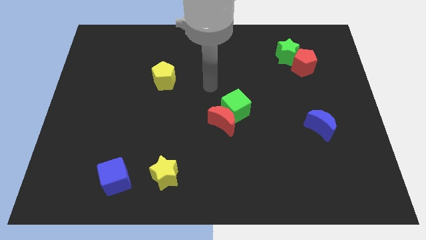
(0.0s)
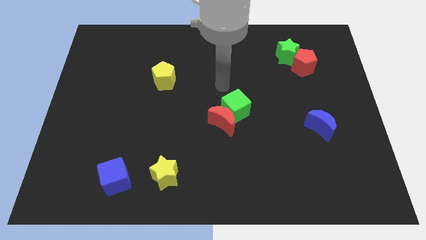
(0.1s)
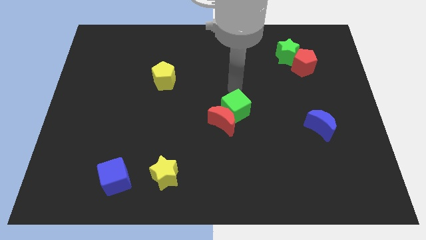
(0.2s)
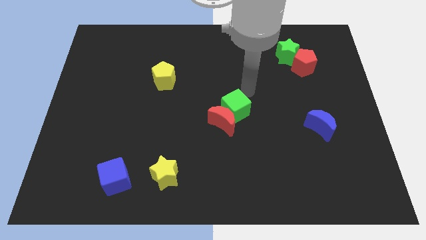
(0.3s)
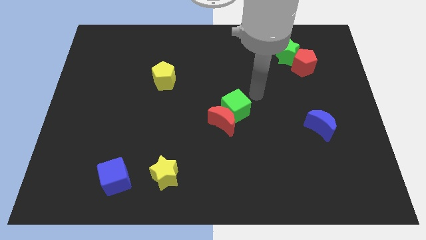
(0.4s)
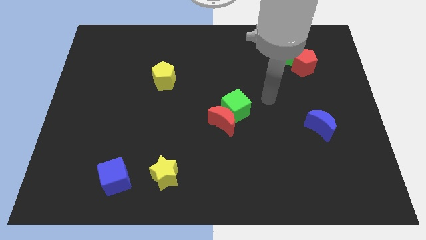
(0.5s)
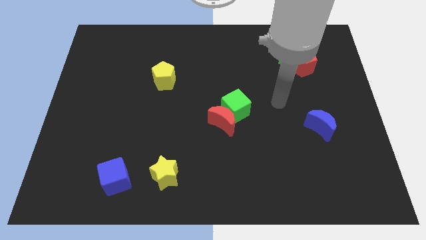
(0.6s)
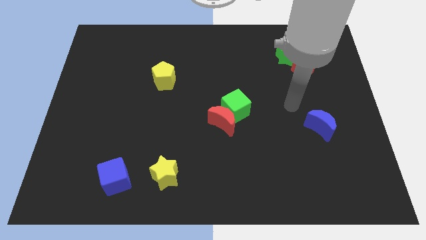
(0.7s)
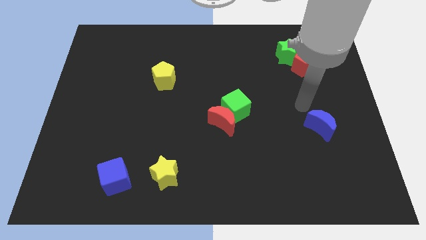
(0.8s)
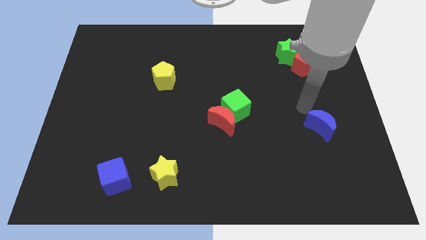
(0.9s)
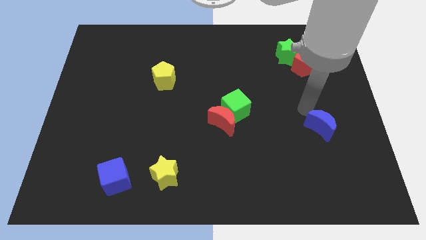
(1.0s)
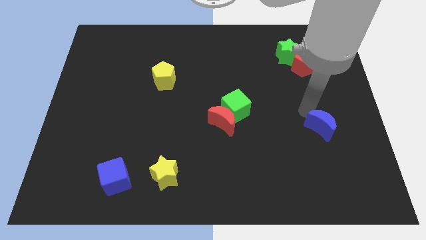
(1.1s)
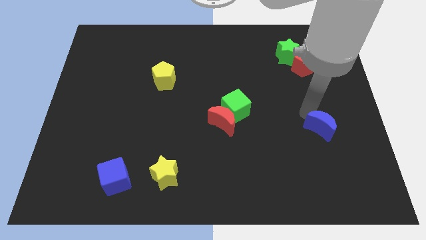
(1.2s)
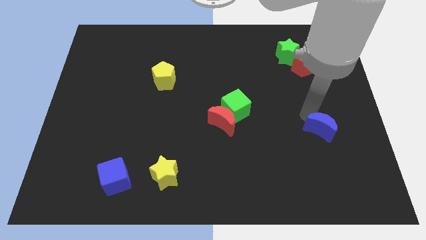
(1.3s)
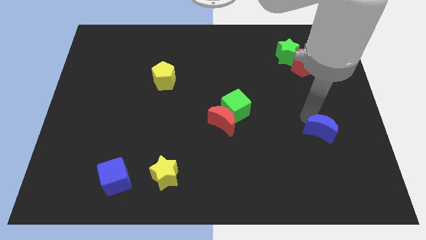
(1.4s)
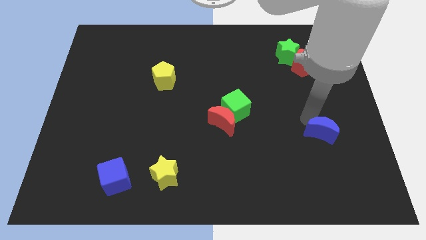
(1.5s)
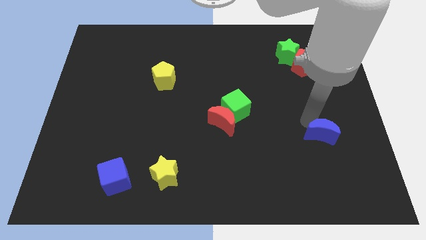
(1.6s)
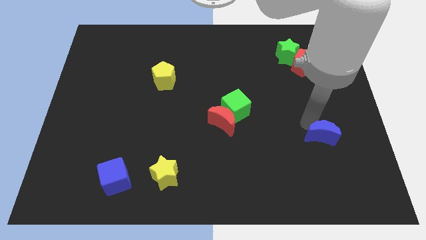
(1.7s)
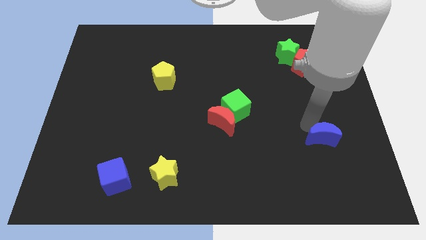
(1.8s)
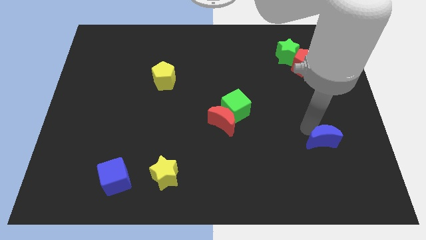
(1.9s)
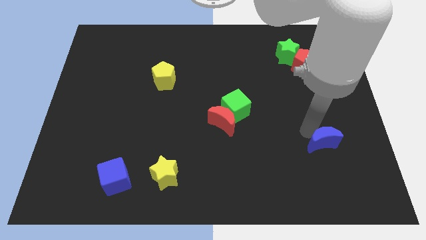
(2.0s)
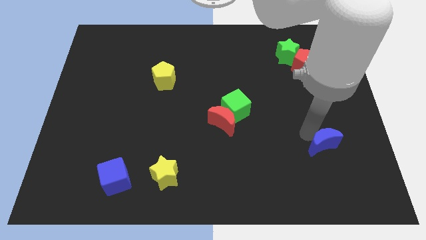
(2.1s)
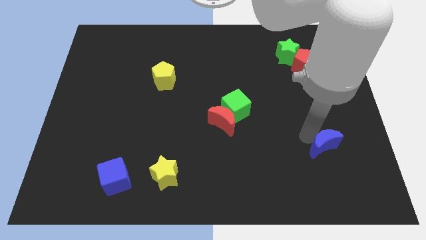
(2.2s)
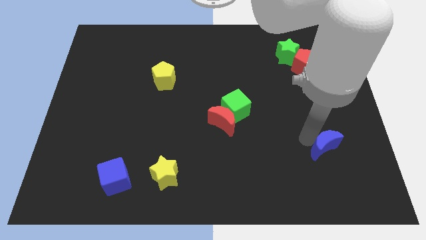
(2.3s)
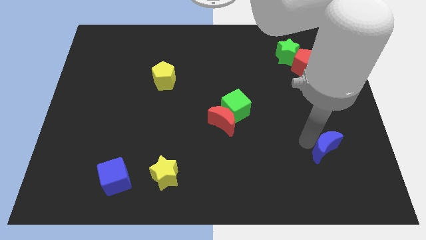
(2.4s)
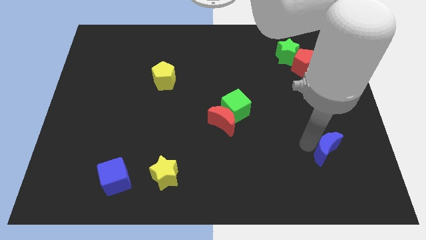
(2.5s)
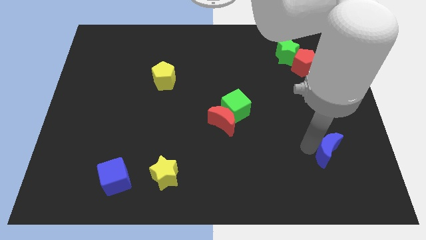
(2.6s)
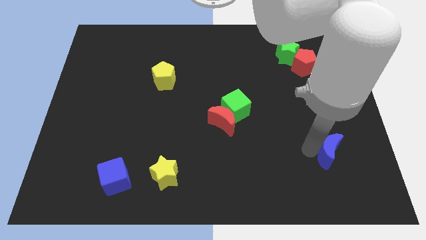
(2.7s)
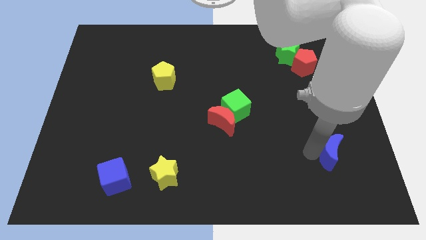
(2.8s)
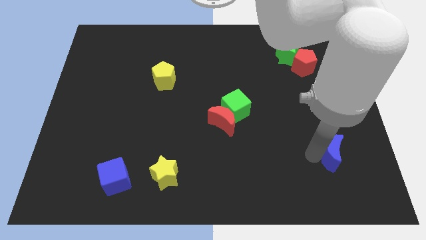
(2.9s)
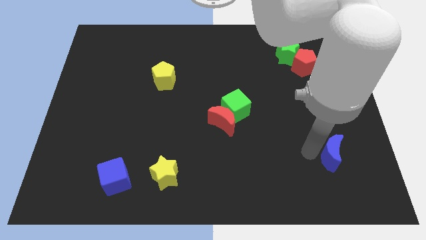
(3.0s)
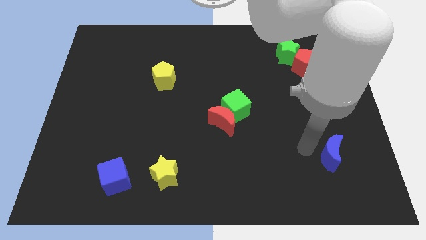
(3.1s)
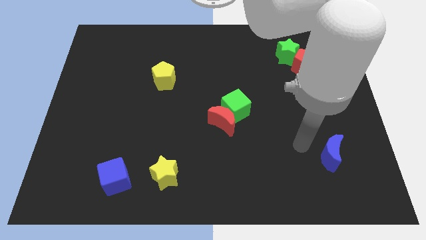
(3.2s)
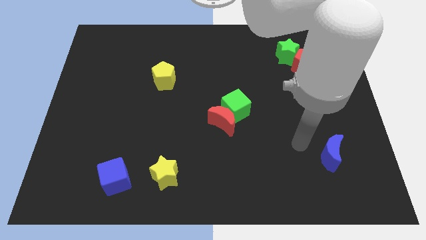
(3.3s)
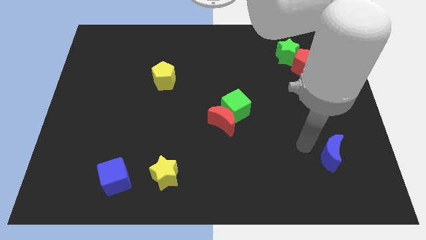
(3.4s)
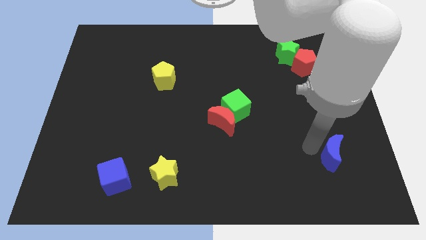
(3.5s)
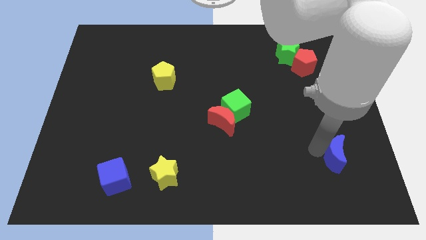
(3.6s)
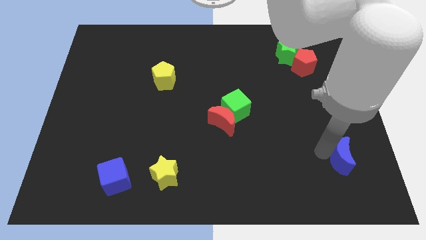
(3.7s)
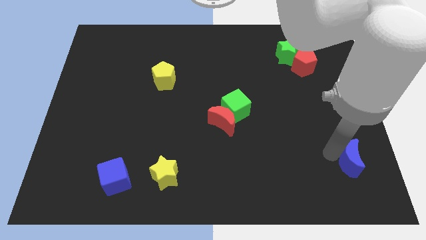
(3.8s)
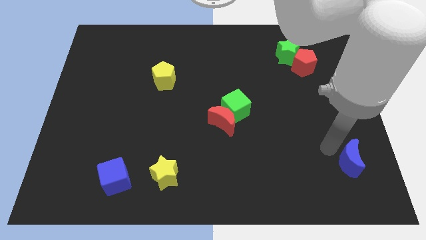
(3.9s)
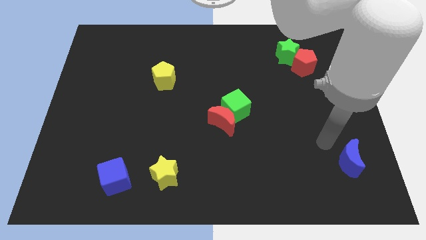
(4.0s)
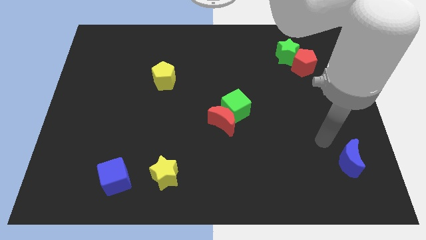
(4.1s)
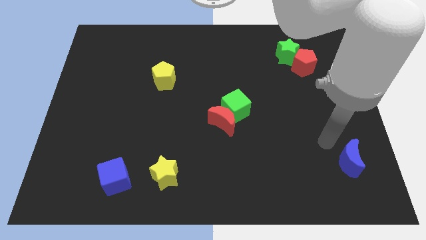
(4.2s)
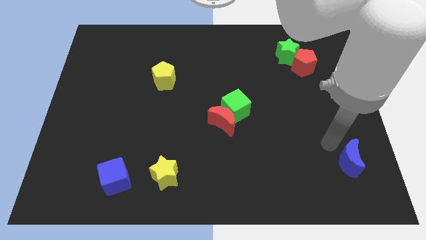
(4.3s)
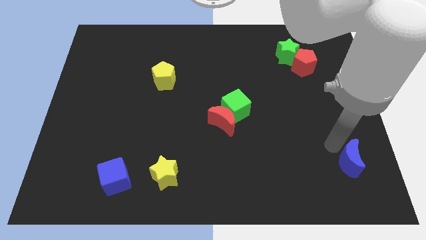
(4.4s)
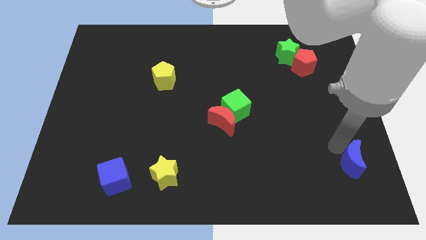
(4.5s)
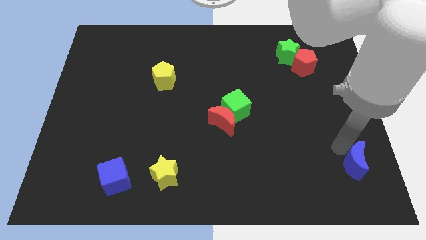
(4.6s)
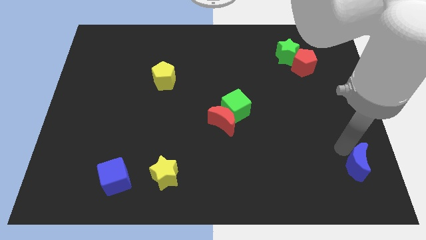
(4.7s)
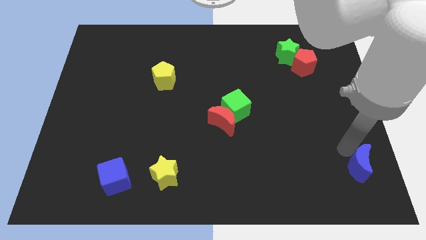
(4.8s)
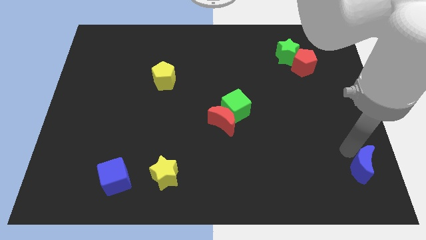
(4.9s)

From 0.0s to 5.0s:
put the blue moon to the bottom right of the board

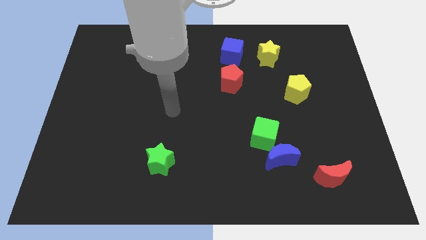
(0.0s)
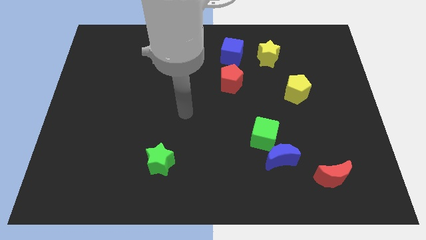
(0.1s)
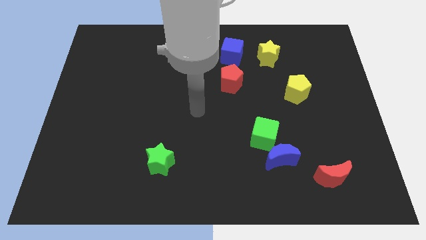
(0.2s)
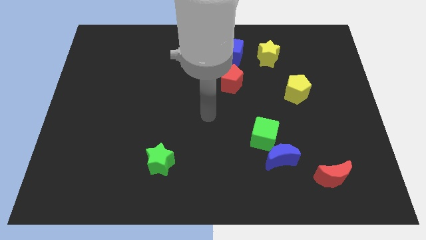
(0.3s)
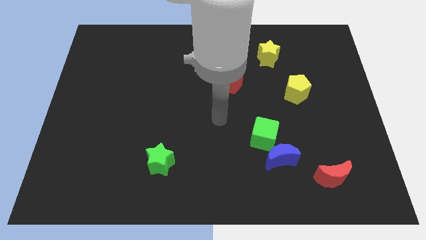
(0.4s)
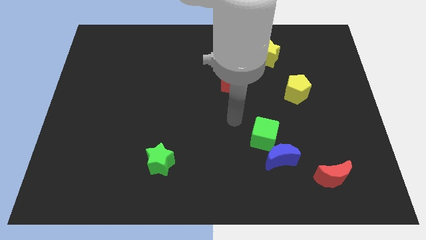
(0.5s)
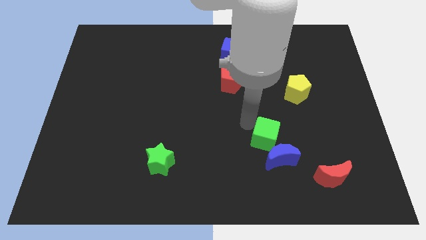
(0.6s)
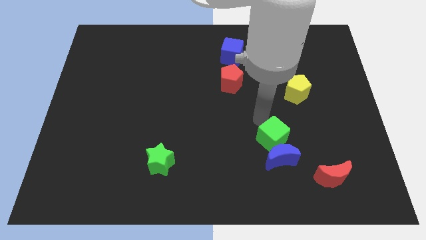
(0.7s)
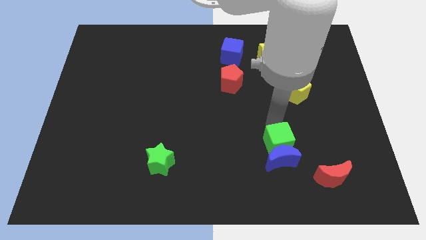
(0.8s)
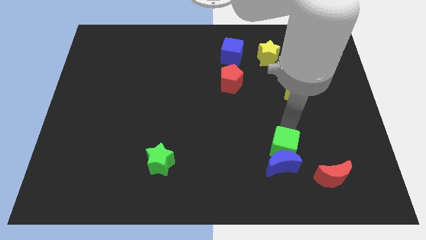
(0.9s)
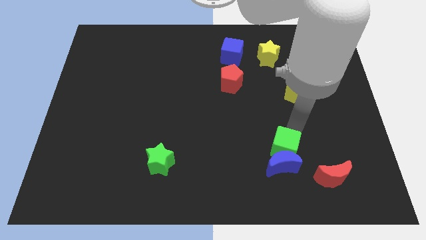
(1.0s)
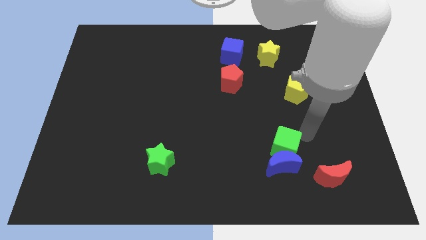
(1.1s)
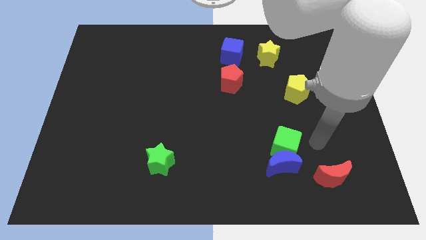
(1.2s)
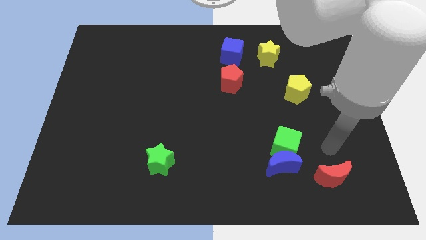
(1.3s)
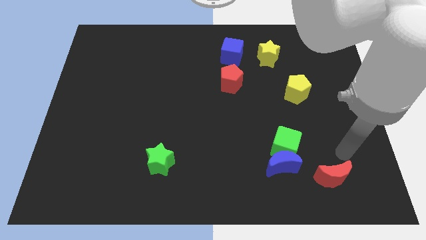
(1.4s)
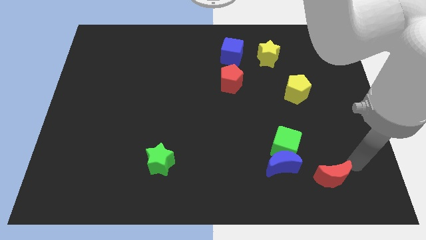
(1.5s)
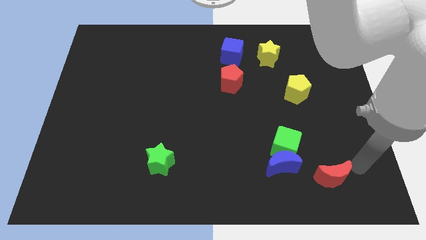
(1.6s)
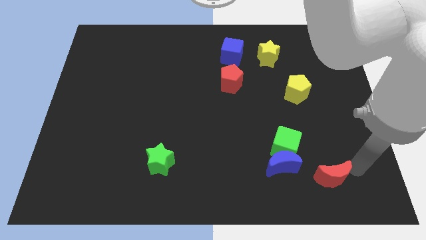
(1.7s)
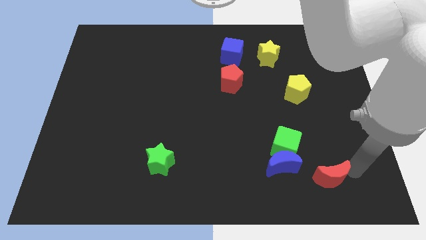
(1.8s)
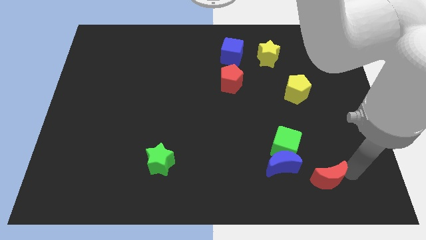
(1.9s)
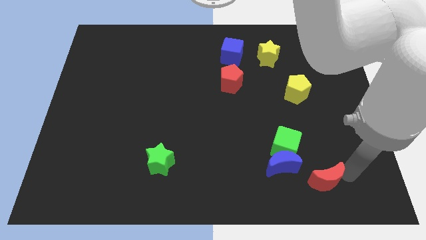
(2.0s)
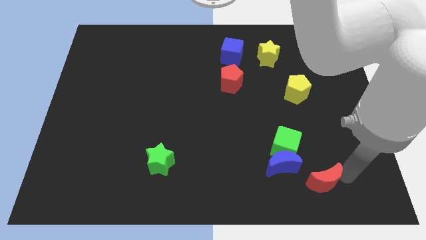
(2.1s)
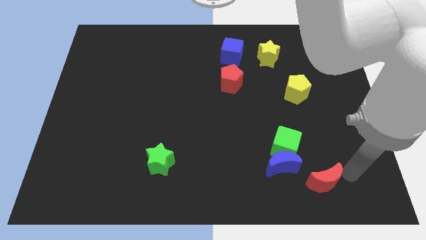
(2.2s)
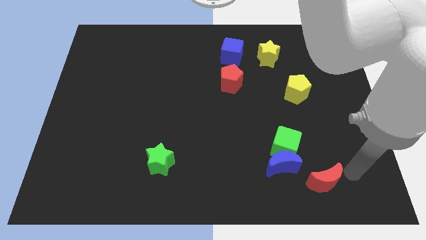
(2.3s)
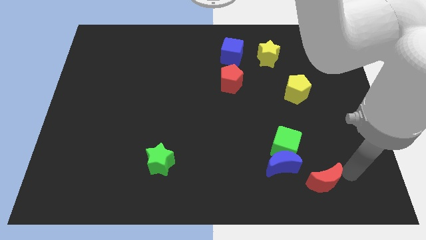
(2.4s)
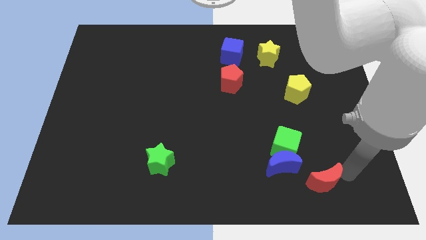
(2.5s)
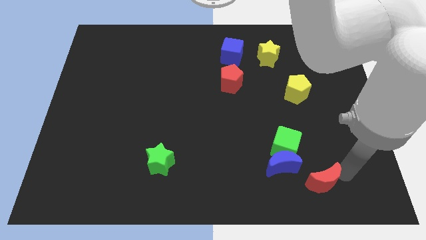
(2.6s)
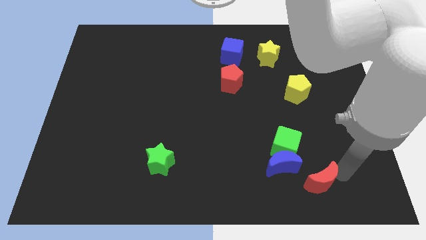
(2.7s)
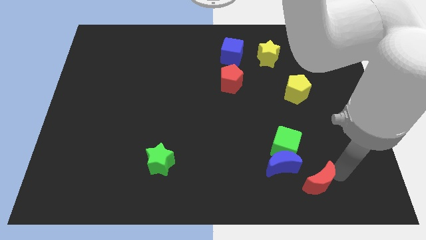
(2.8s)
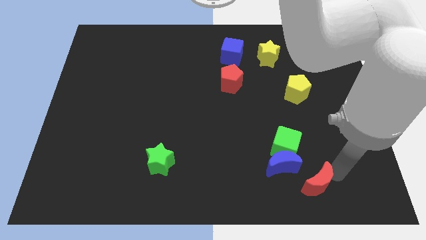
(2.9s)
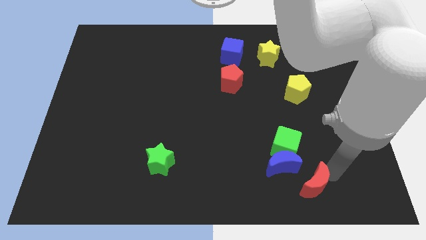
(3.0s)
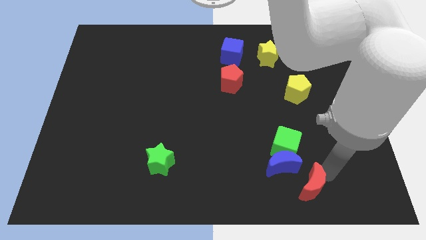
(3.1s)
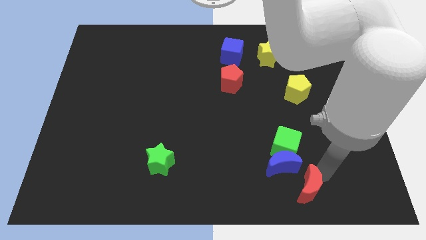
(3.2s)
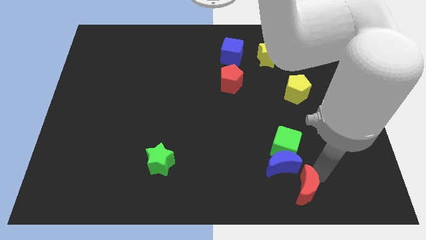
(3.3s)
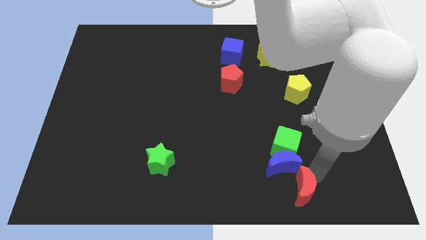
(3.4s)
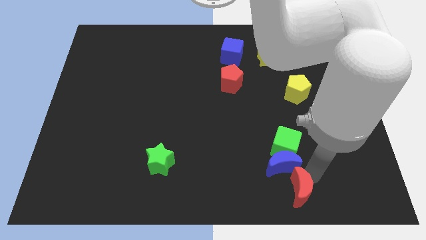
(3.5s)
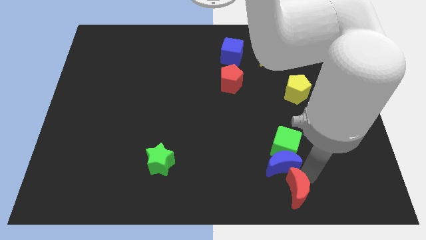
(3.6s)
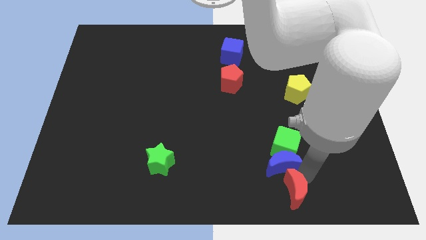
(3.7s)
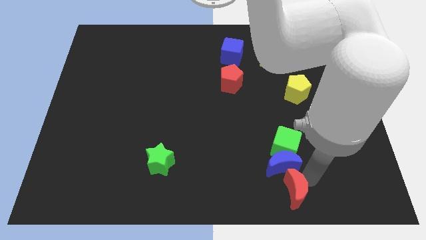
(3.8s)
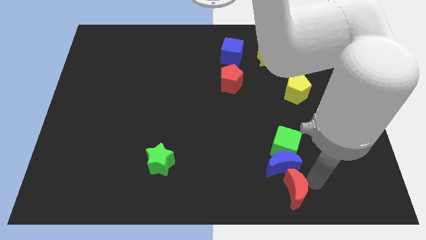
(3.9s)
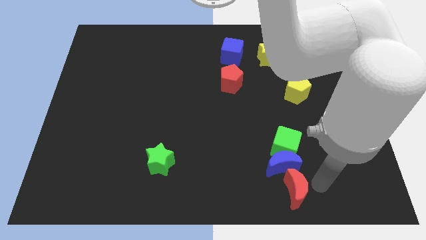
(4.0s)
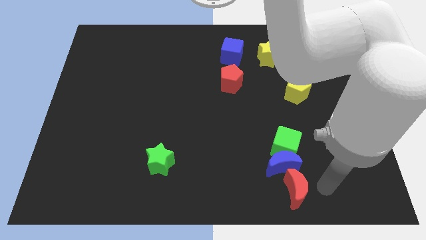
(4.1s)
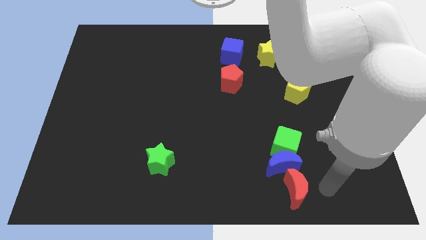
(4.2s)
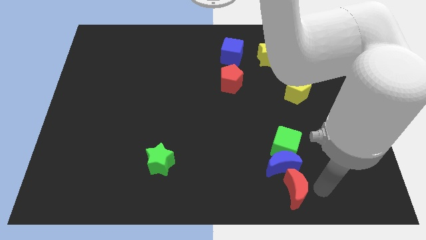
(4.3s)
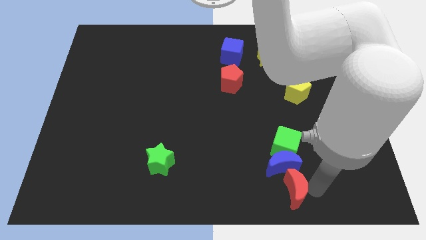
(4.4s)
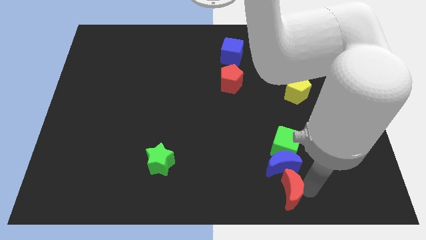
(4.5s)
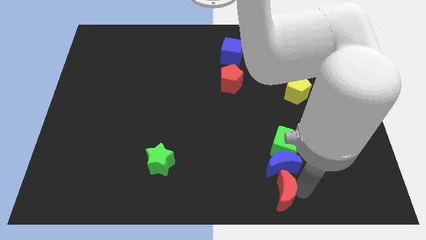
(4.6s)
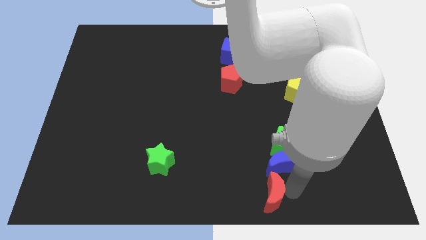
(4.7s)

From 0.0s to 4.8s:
push the red moon to the bottom side
